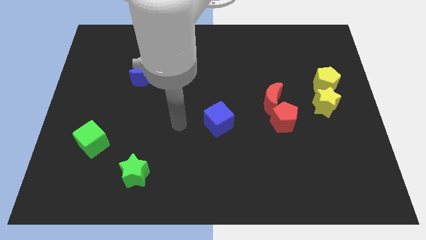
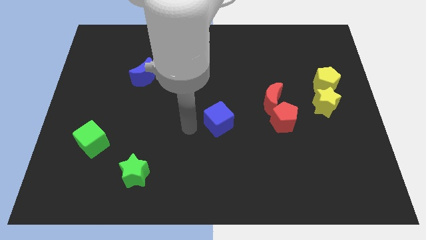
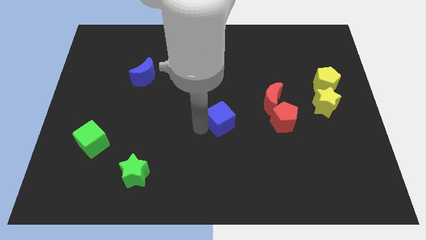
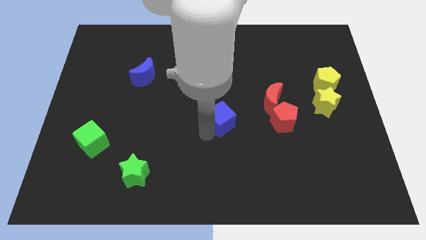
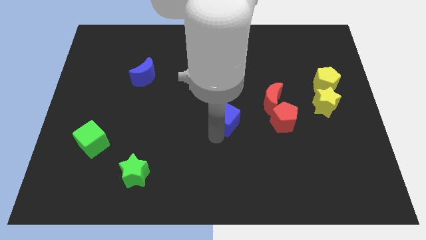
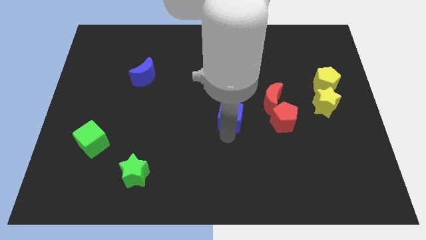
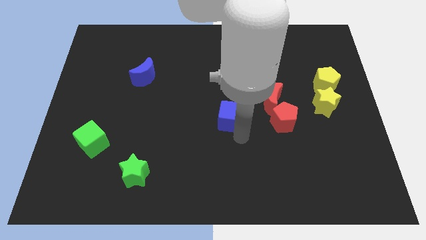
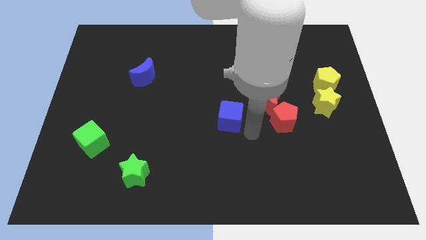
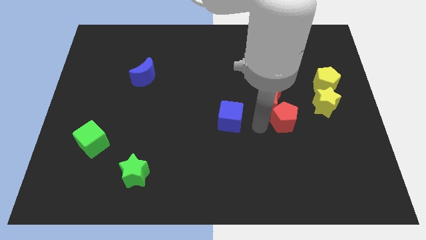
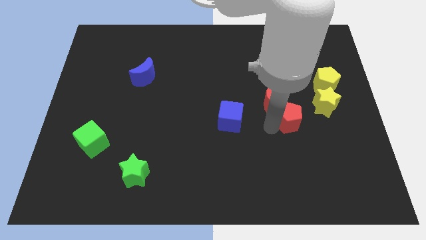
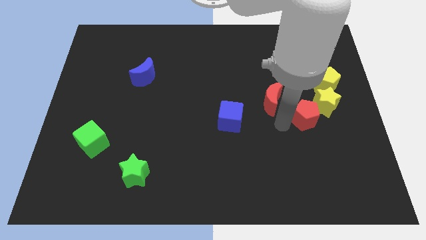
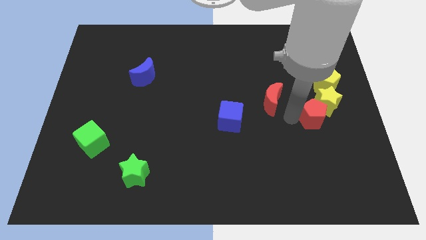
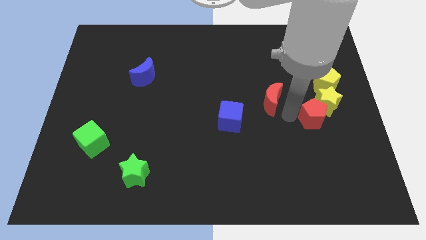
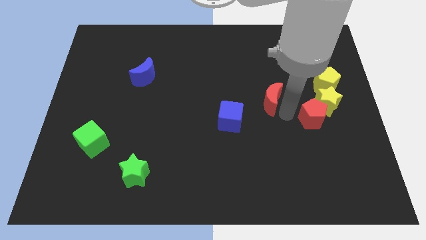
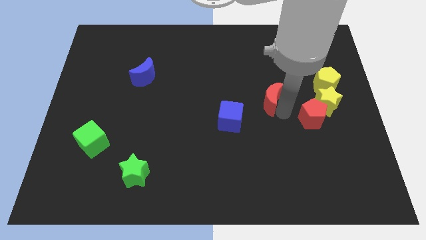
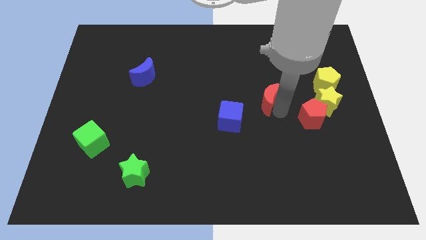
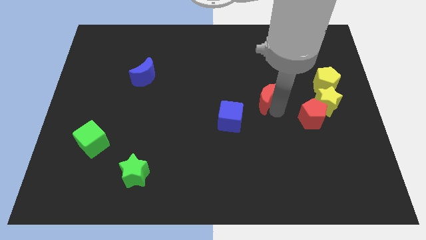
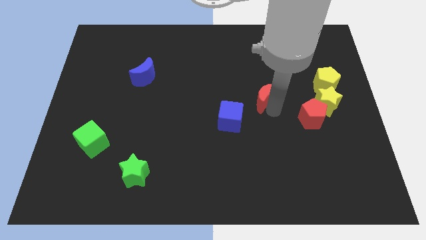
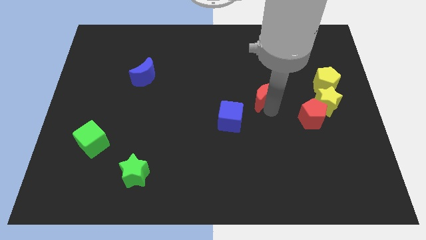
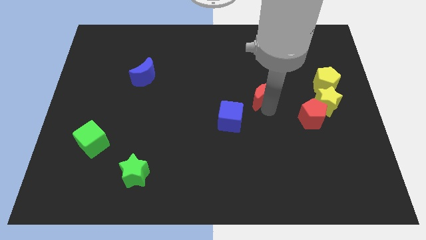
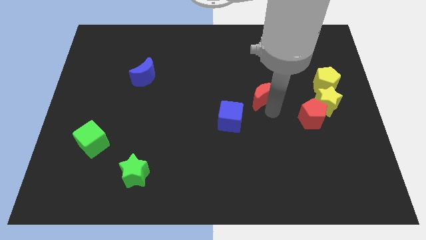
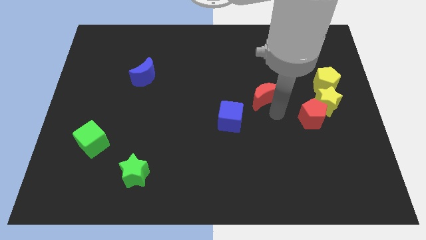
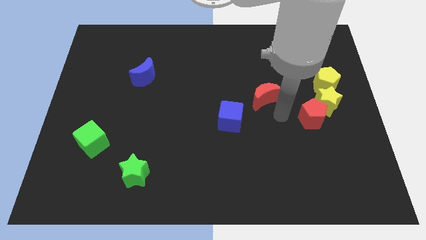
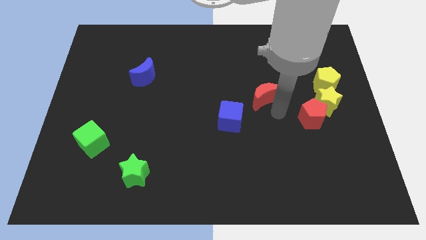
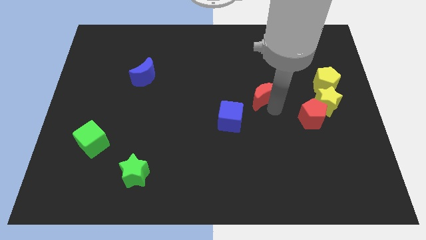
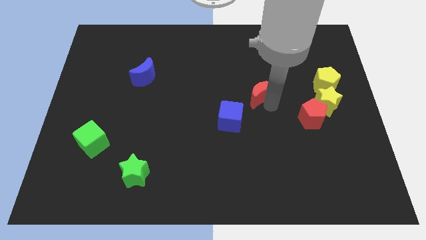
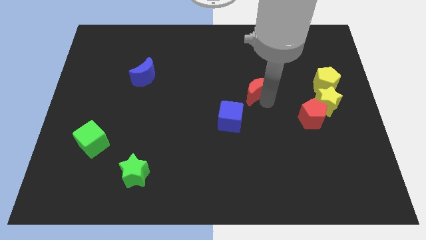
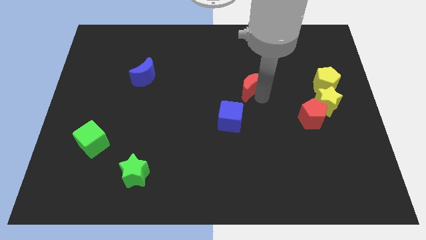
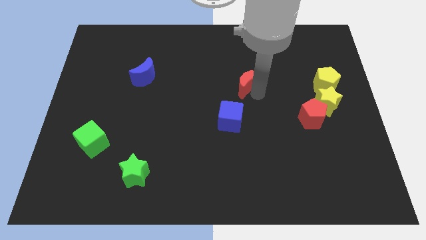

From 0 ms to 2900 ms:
move the red moon up and to the left somewhat

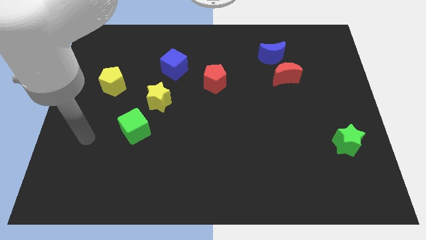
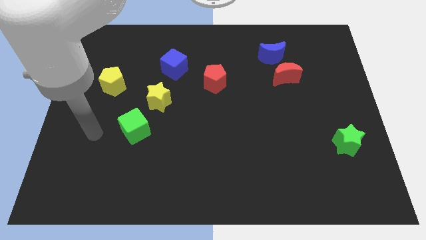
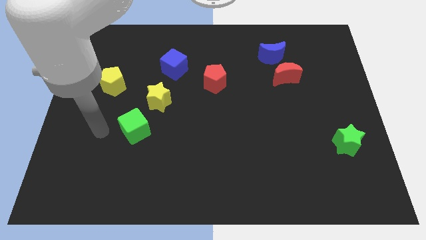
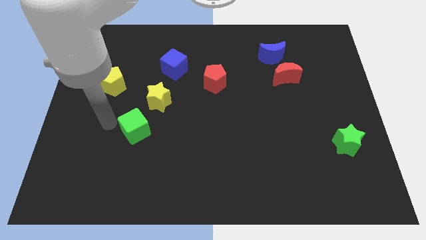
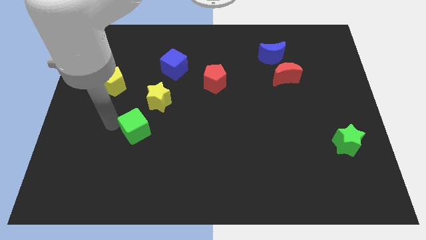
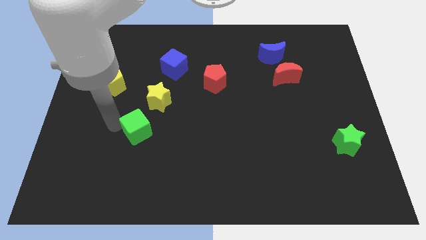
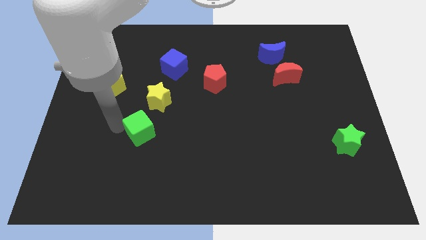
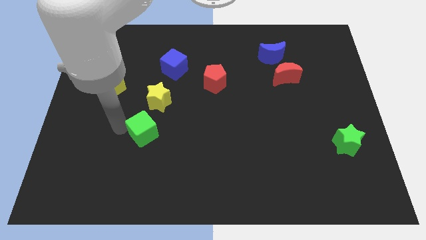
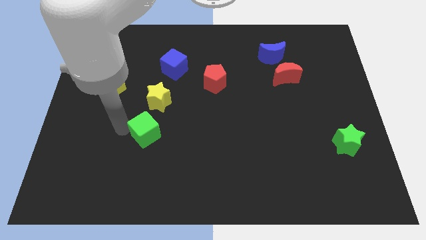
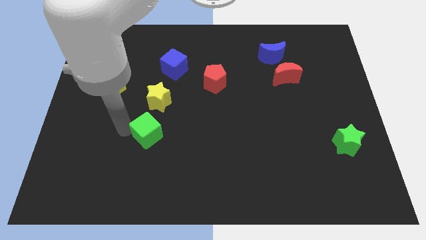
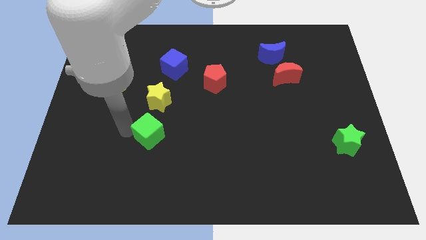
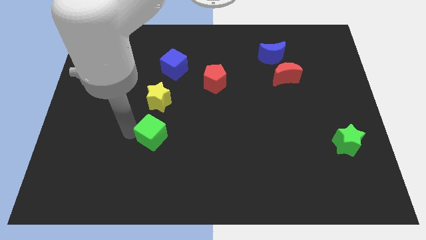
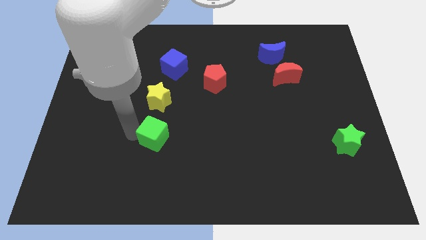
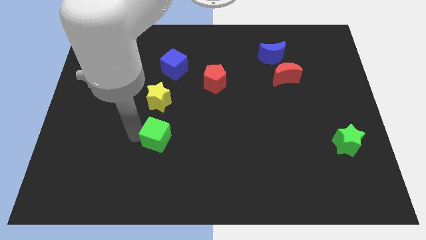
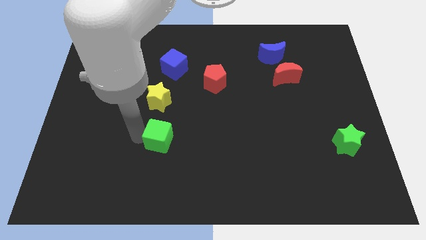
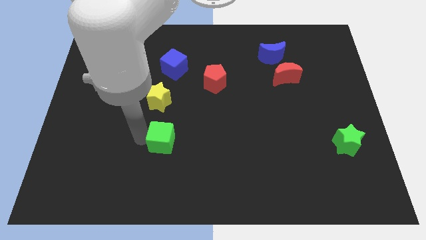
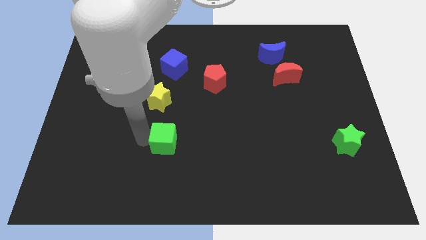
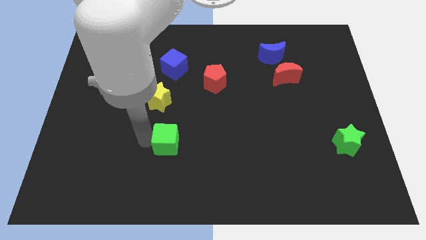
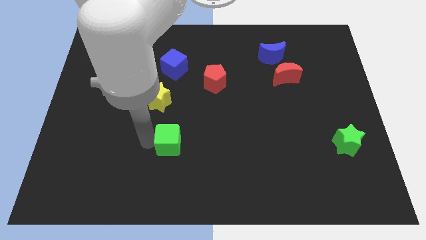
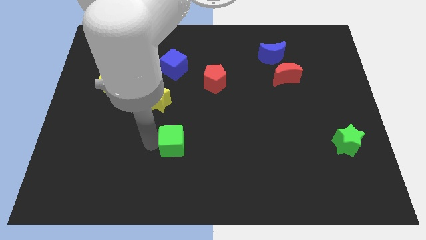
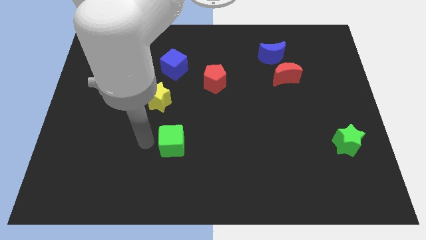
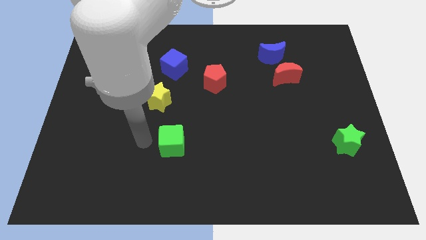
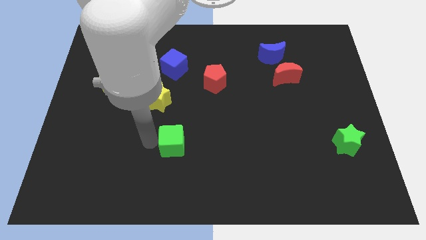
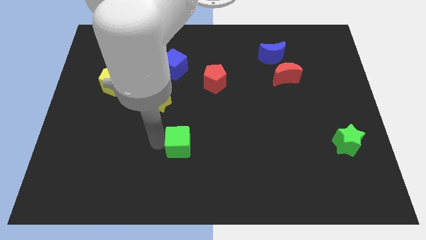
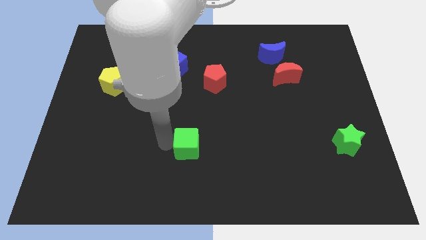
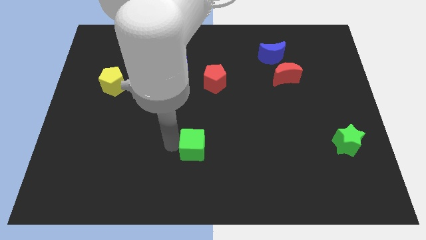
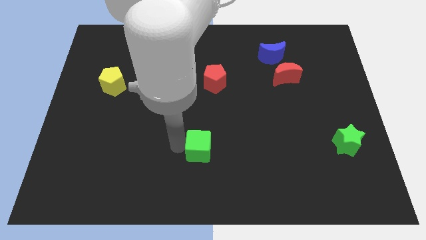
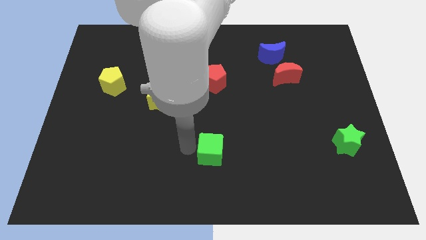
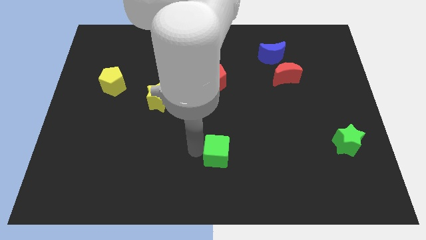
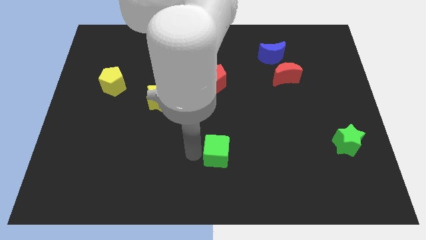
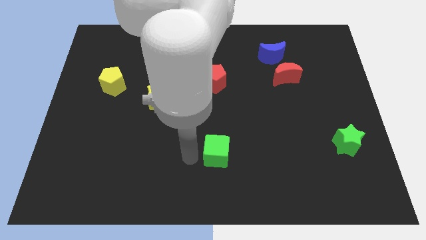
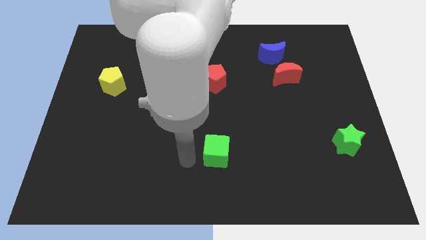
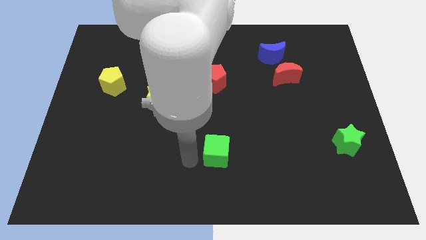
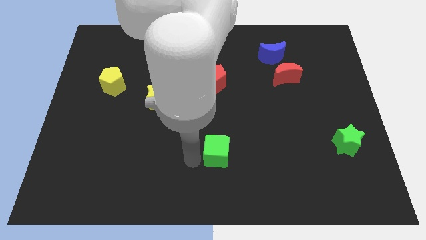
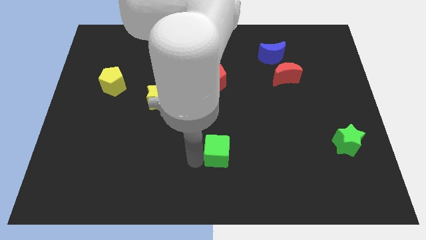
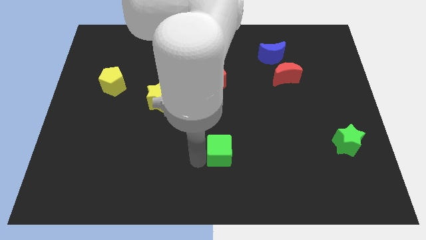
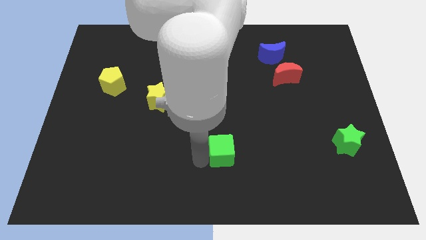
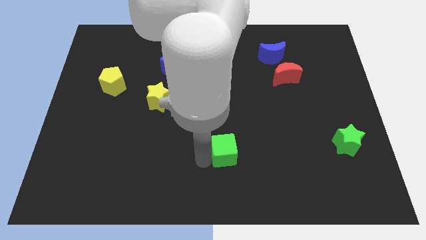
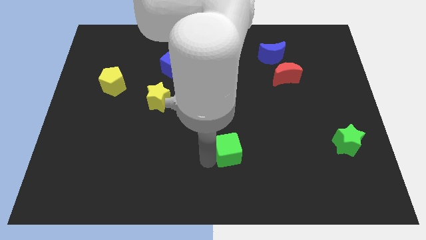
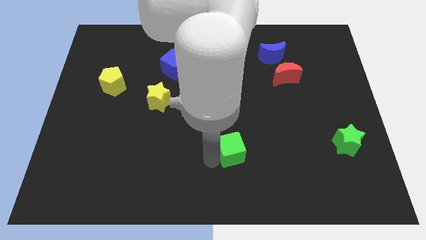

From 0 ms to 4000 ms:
push the green cube to the right

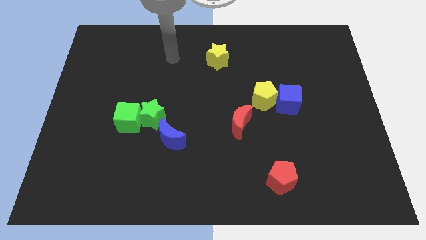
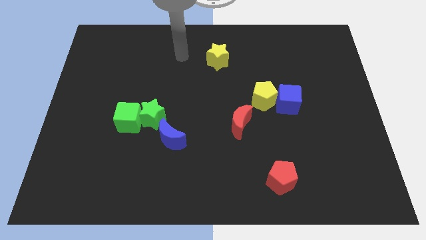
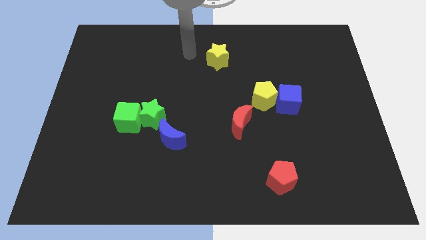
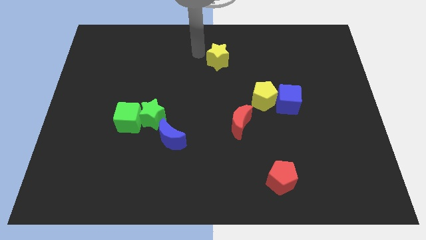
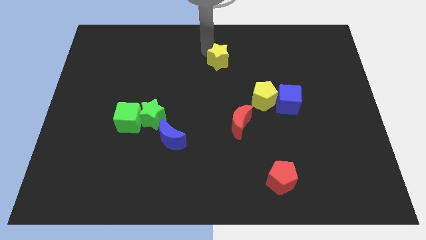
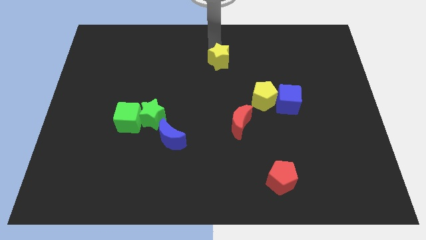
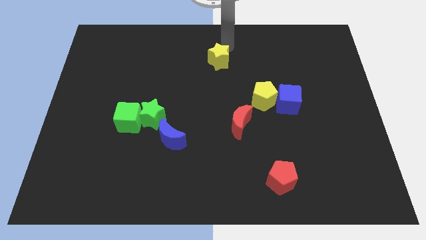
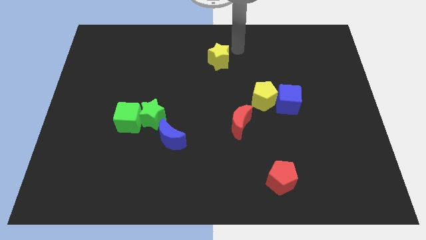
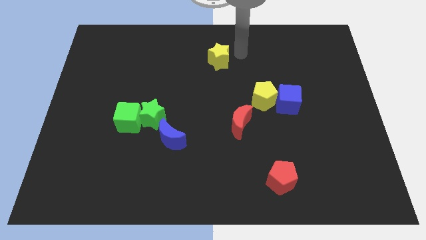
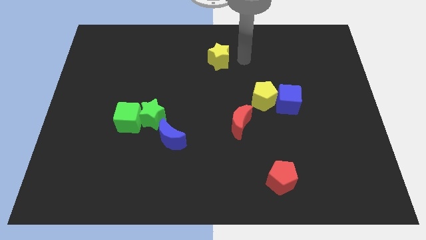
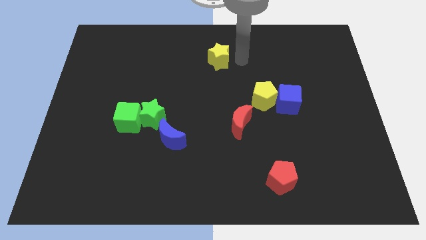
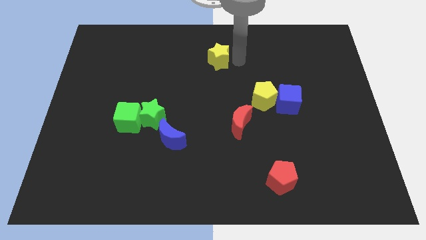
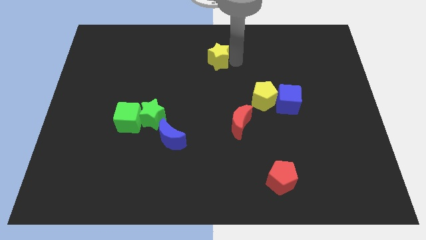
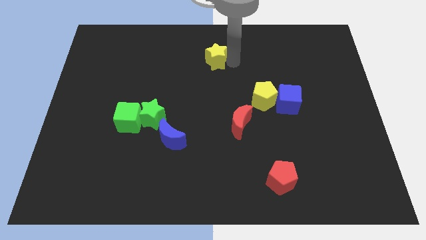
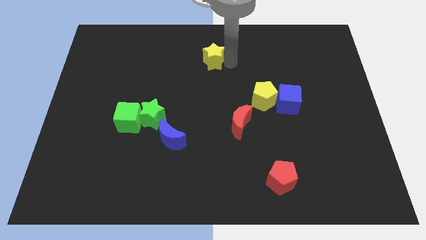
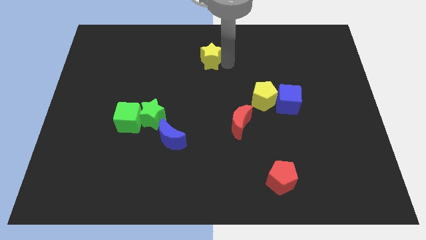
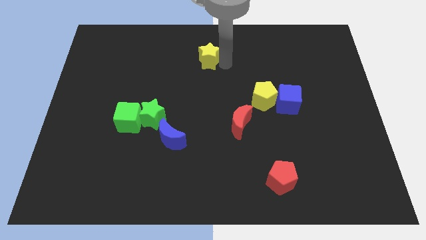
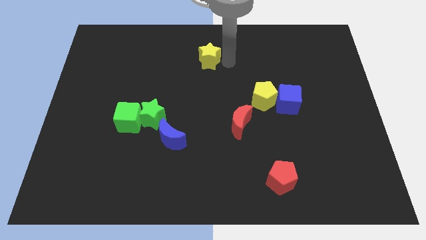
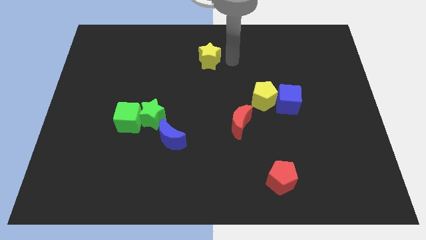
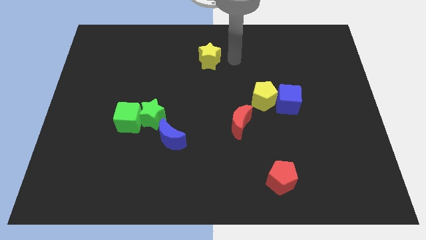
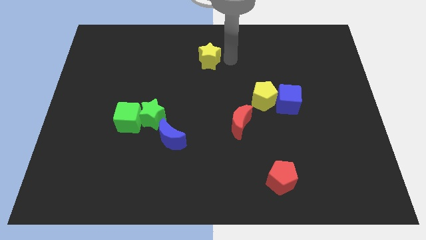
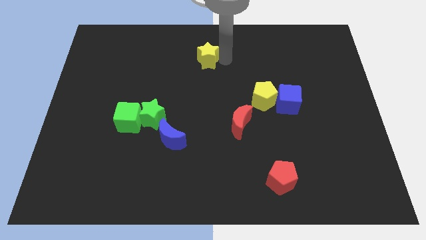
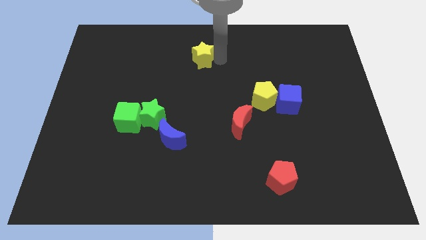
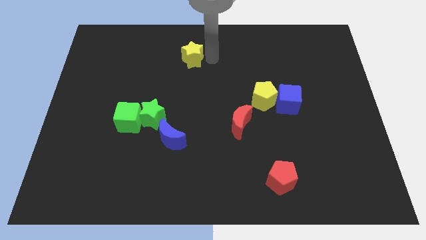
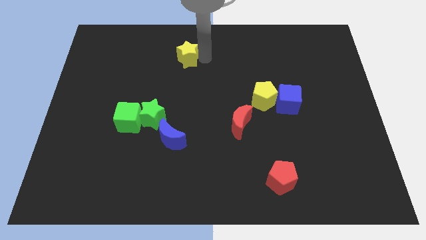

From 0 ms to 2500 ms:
move the yellow star to the left a bit
